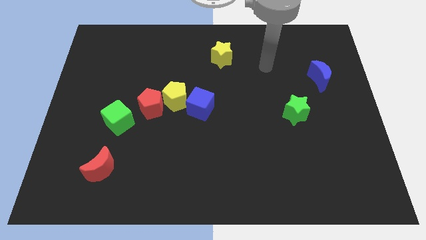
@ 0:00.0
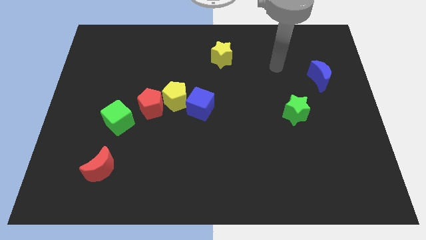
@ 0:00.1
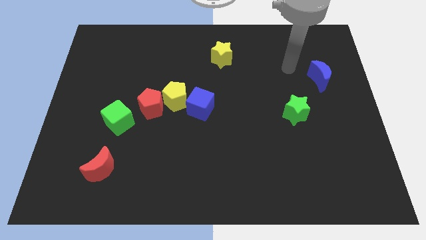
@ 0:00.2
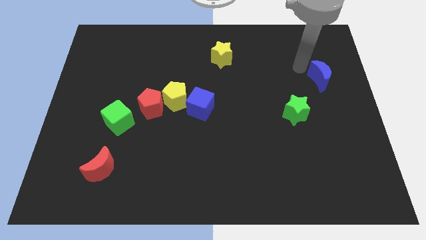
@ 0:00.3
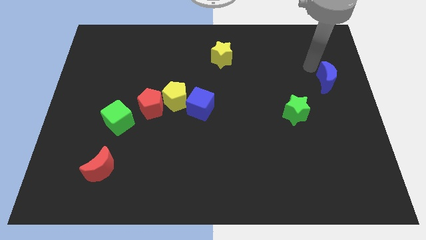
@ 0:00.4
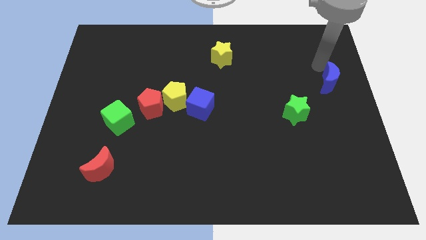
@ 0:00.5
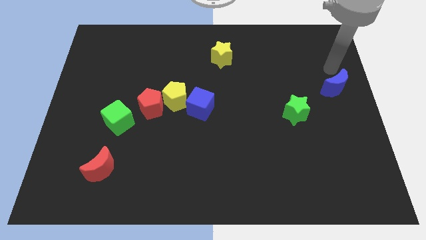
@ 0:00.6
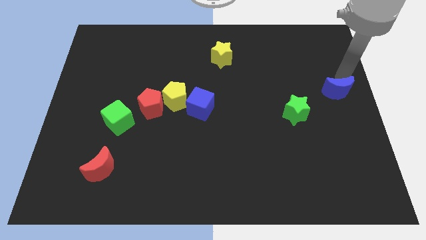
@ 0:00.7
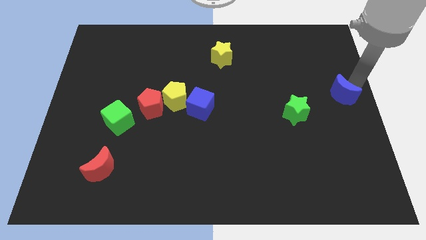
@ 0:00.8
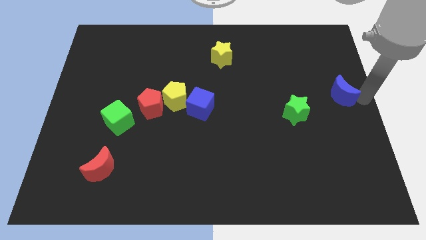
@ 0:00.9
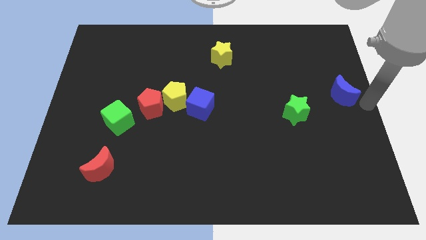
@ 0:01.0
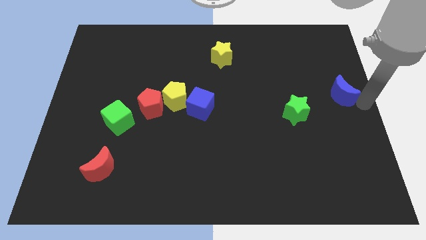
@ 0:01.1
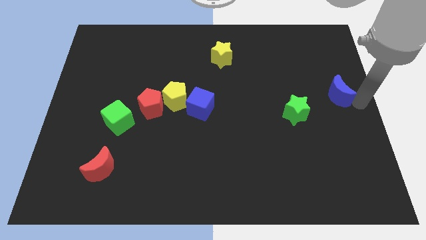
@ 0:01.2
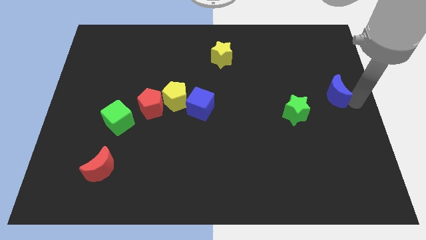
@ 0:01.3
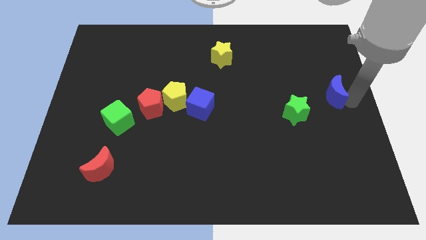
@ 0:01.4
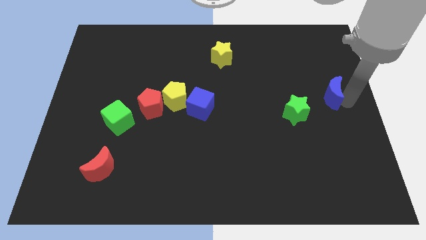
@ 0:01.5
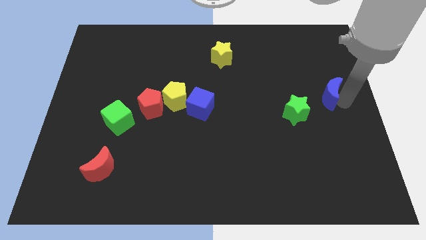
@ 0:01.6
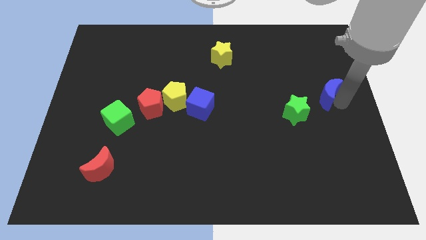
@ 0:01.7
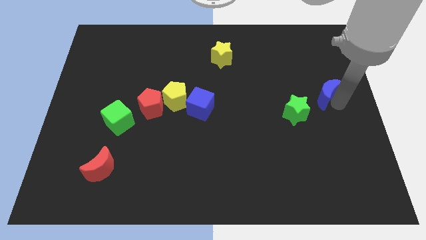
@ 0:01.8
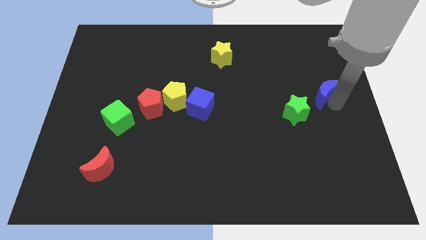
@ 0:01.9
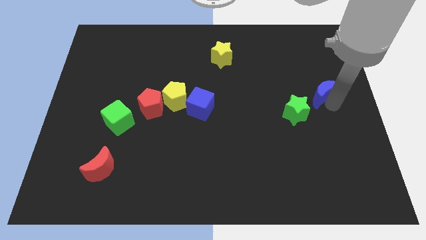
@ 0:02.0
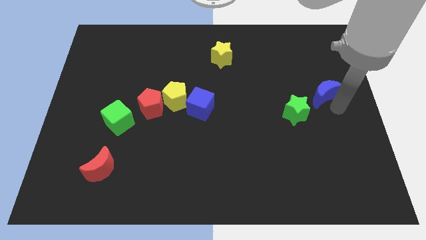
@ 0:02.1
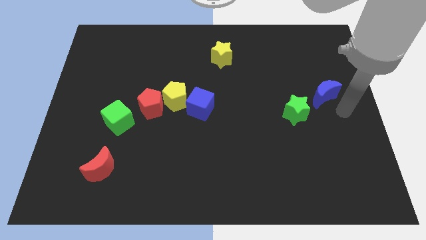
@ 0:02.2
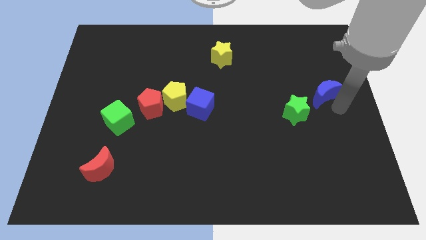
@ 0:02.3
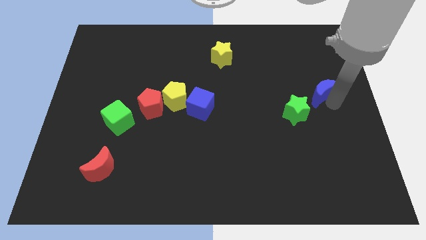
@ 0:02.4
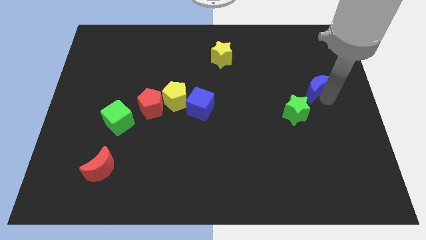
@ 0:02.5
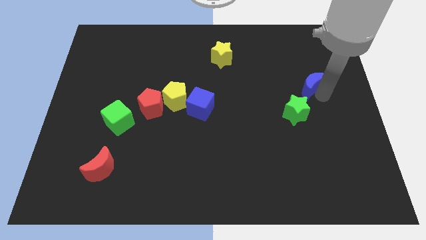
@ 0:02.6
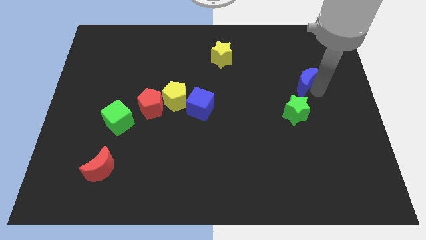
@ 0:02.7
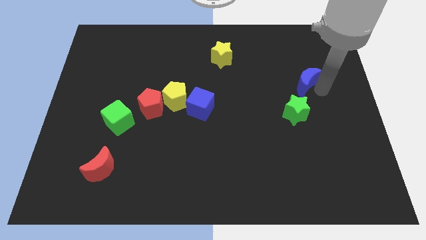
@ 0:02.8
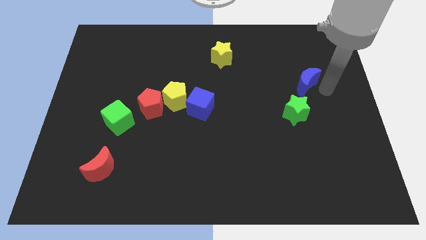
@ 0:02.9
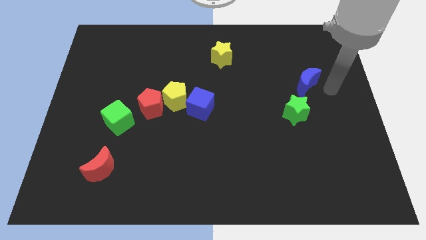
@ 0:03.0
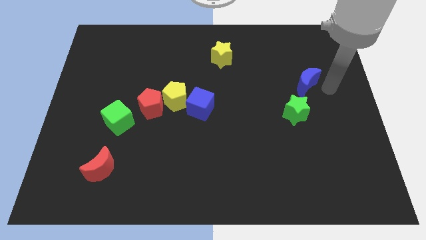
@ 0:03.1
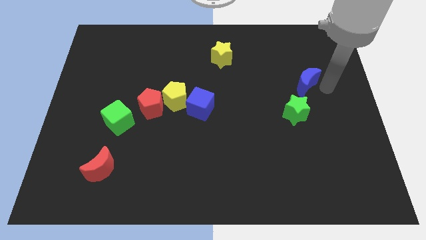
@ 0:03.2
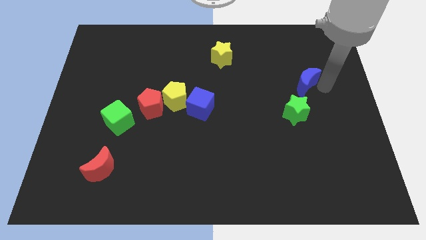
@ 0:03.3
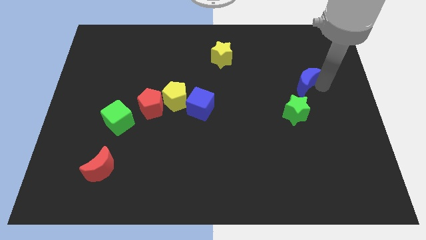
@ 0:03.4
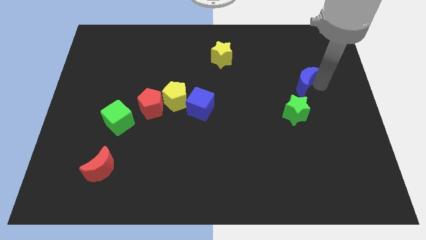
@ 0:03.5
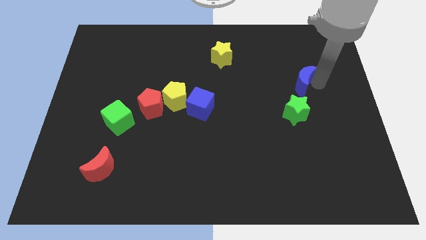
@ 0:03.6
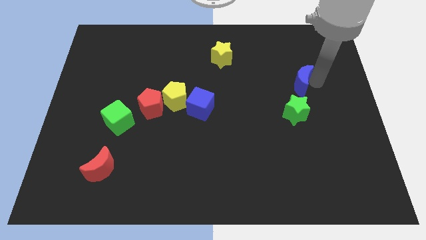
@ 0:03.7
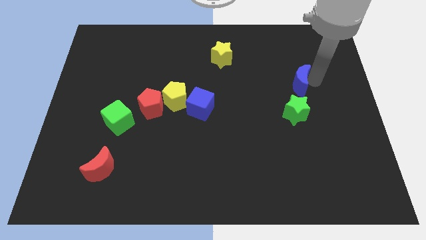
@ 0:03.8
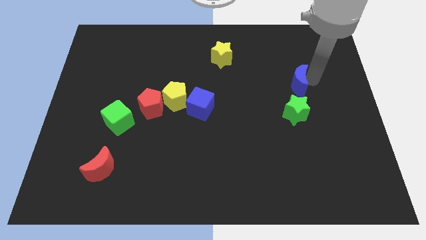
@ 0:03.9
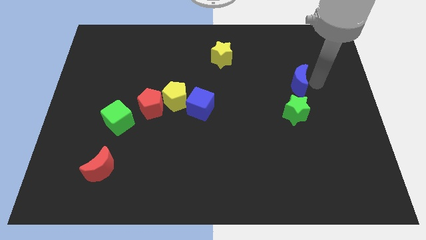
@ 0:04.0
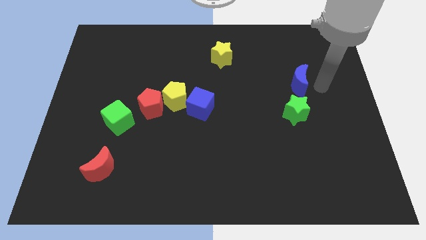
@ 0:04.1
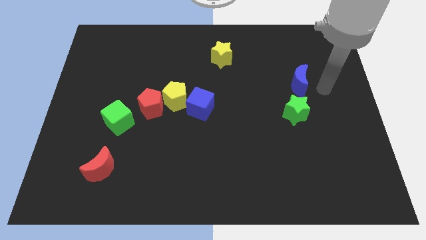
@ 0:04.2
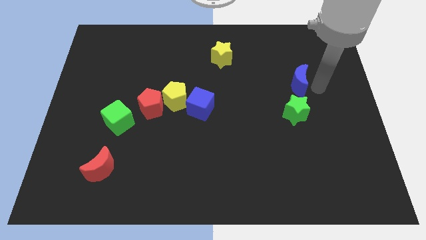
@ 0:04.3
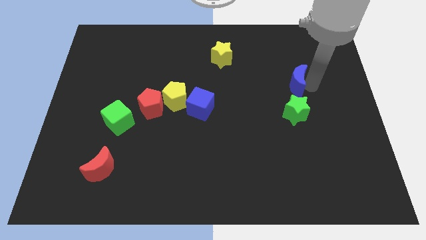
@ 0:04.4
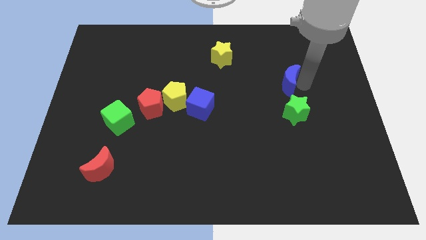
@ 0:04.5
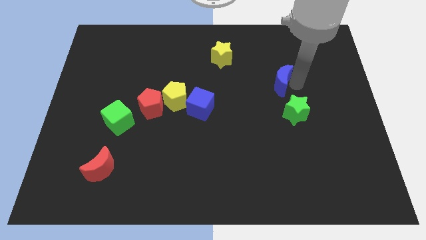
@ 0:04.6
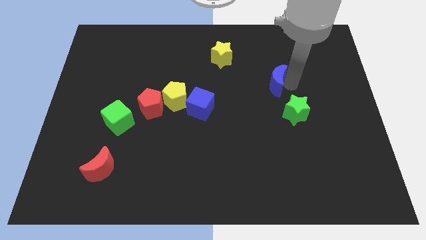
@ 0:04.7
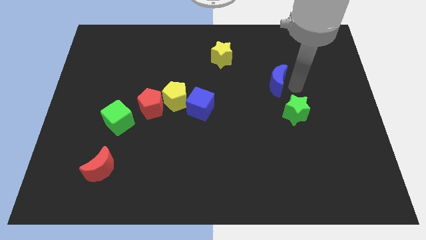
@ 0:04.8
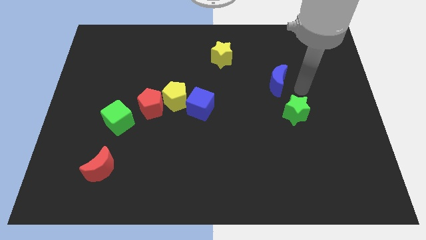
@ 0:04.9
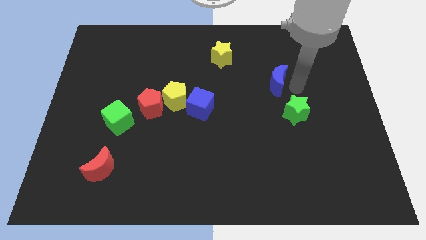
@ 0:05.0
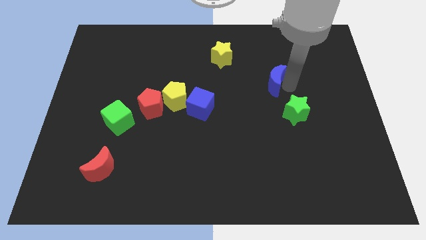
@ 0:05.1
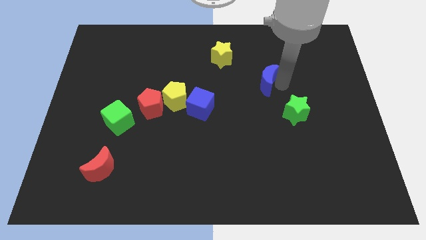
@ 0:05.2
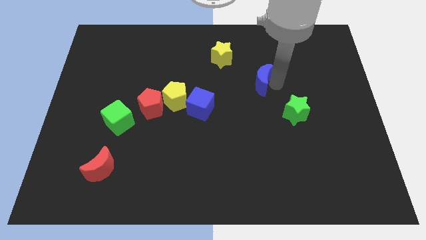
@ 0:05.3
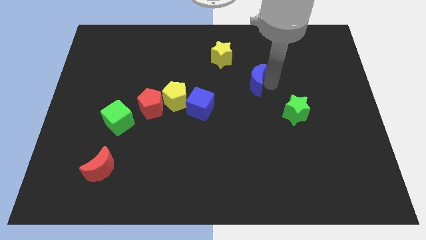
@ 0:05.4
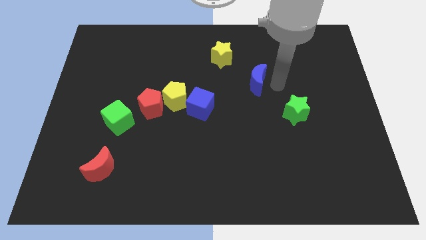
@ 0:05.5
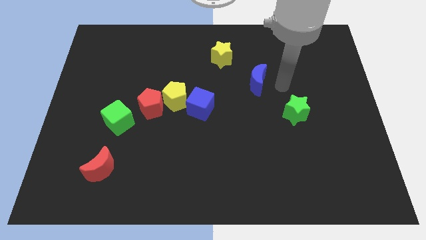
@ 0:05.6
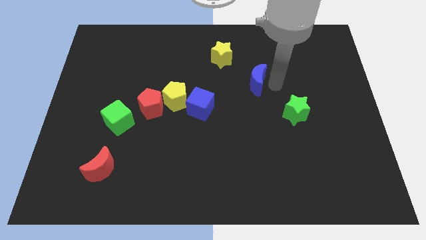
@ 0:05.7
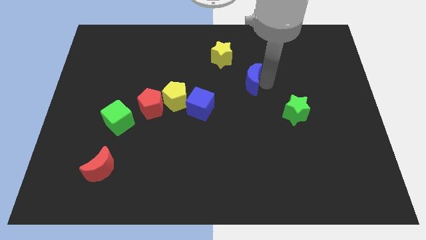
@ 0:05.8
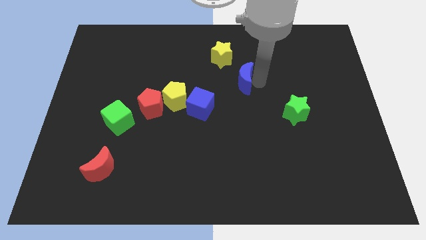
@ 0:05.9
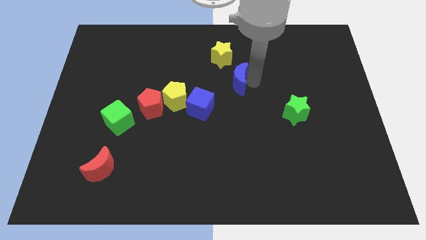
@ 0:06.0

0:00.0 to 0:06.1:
move the blue moon to the left

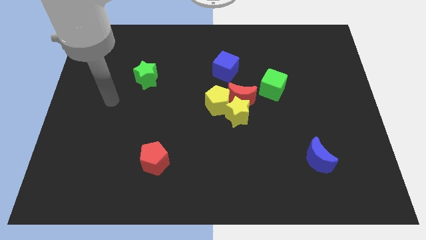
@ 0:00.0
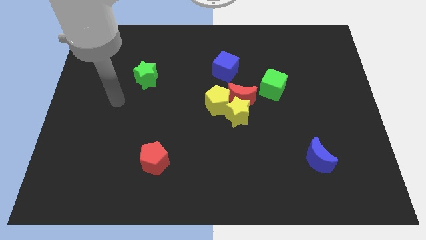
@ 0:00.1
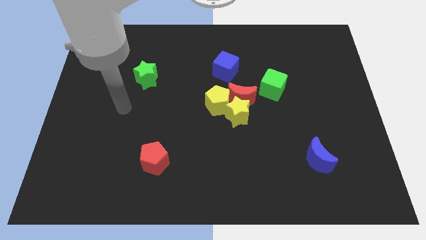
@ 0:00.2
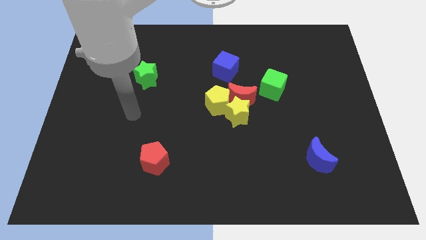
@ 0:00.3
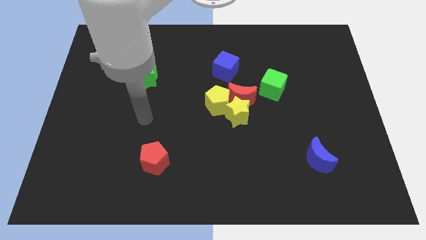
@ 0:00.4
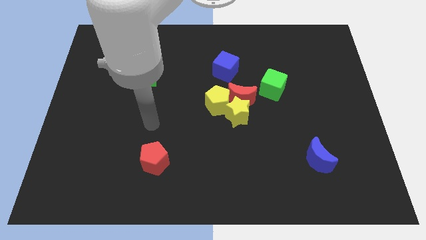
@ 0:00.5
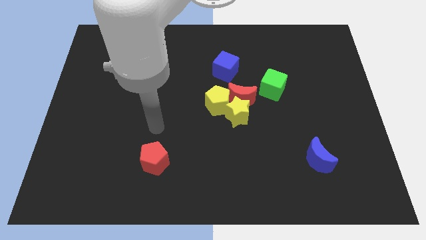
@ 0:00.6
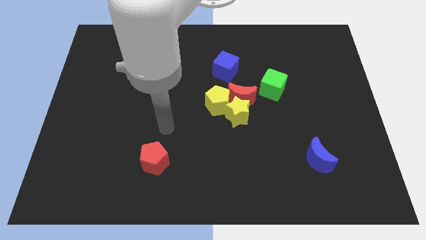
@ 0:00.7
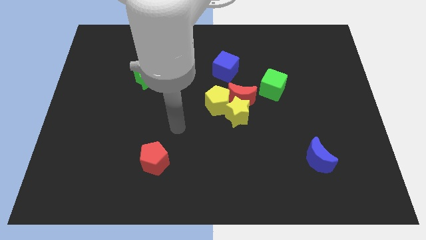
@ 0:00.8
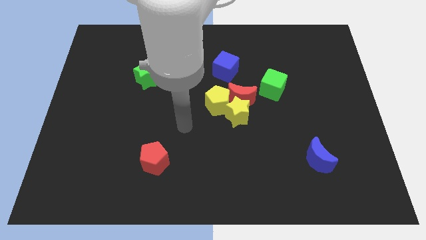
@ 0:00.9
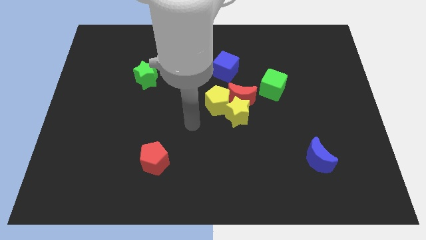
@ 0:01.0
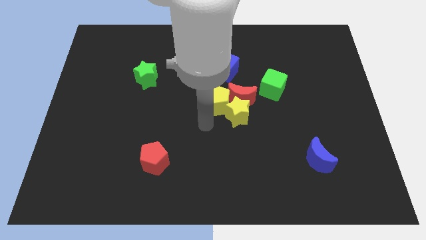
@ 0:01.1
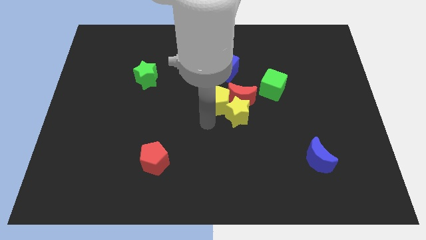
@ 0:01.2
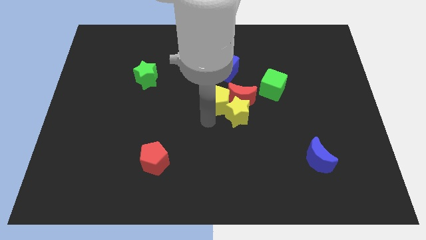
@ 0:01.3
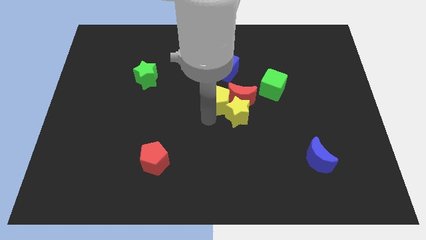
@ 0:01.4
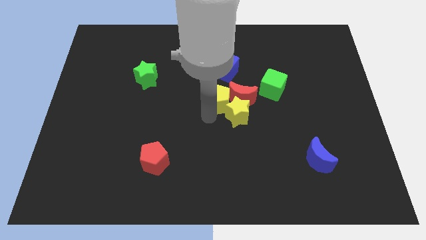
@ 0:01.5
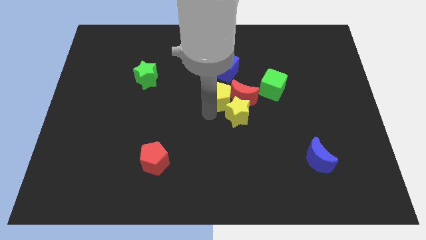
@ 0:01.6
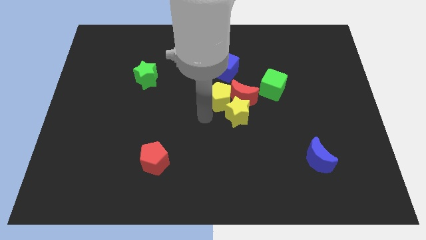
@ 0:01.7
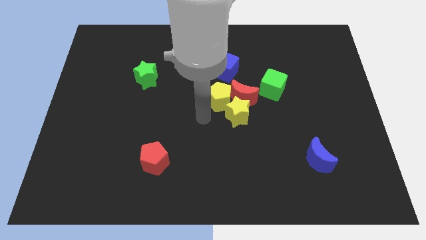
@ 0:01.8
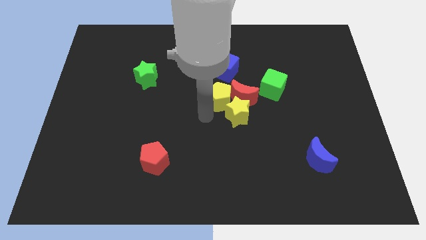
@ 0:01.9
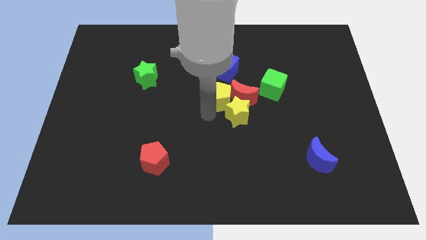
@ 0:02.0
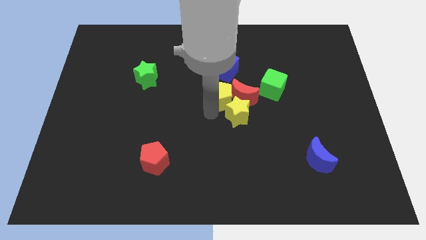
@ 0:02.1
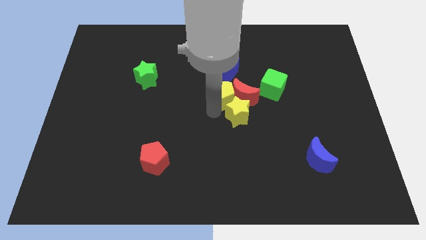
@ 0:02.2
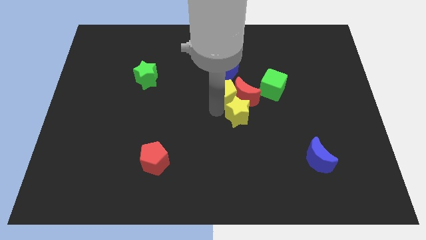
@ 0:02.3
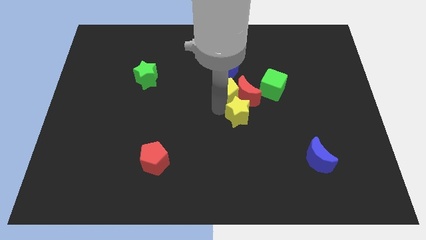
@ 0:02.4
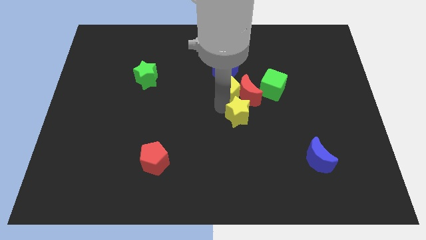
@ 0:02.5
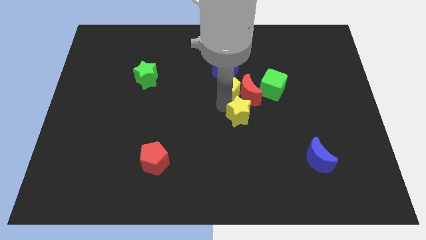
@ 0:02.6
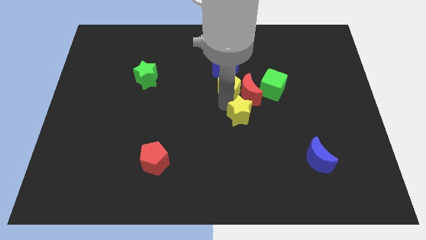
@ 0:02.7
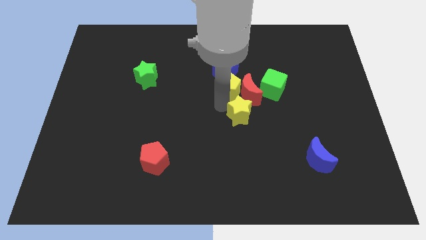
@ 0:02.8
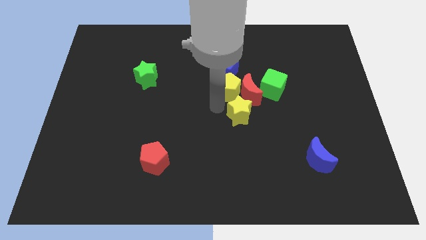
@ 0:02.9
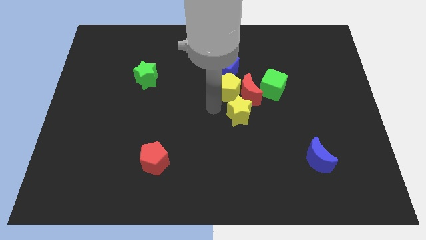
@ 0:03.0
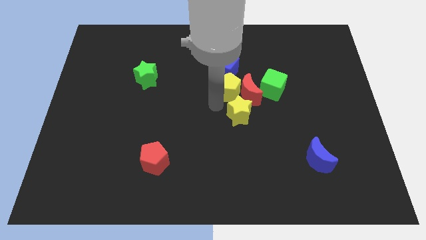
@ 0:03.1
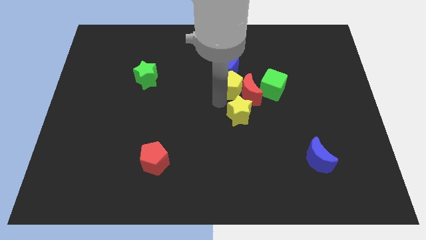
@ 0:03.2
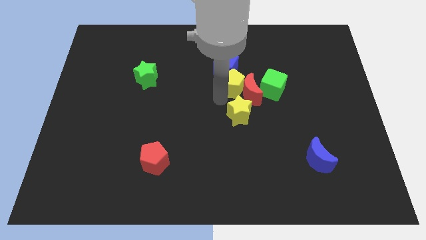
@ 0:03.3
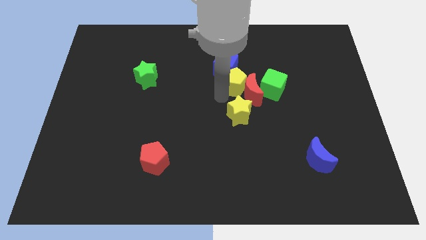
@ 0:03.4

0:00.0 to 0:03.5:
push the yellow pentagon upwards and to the right diagonally slightly
